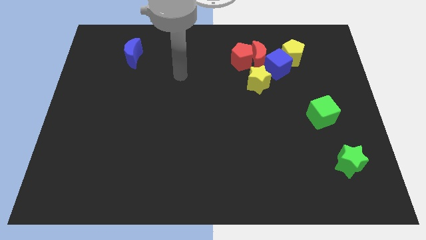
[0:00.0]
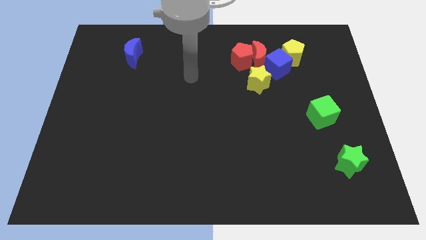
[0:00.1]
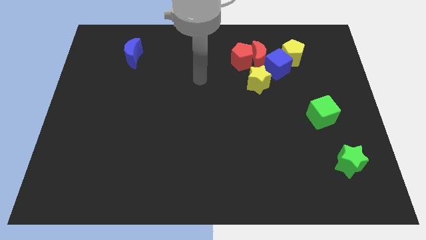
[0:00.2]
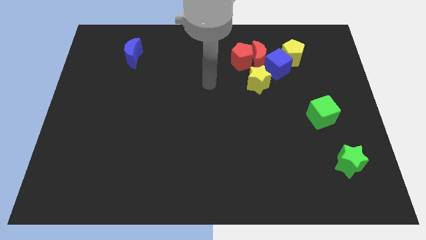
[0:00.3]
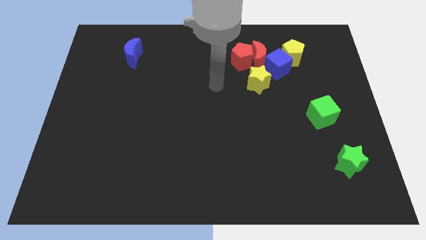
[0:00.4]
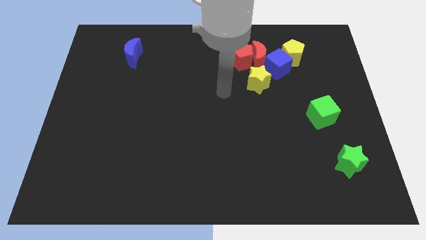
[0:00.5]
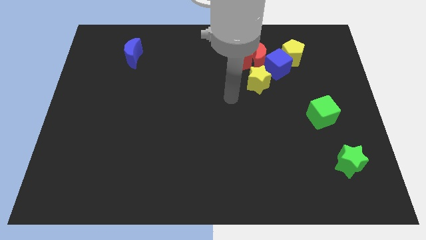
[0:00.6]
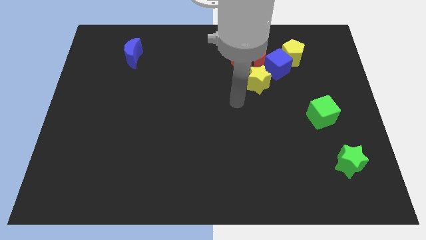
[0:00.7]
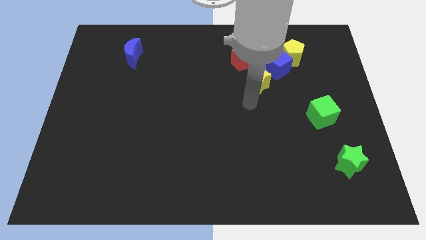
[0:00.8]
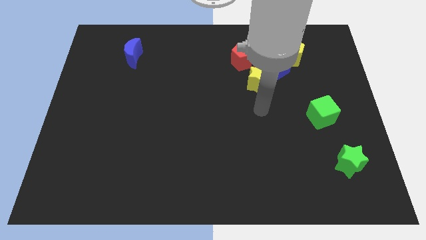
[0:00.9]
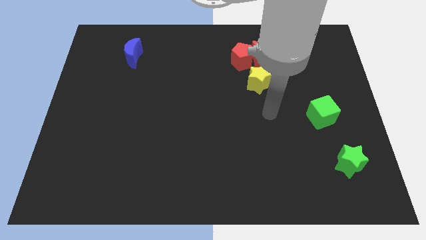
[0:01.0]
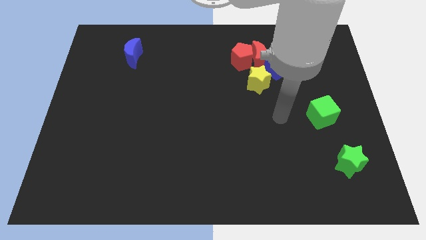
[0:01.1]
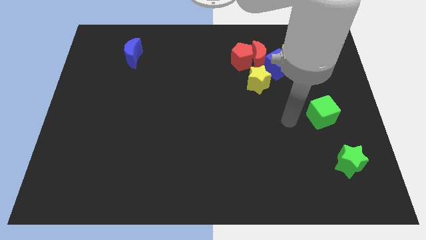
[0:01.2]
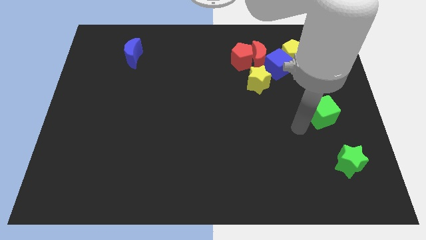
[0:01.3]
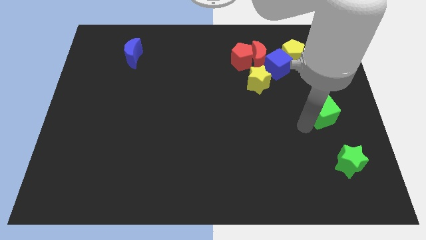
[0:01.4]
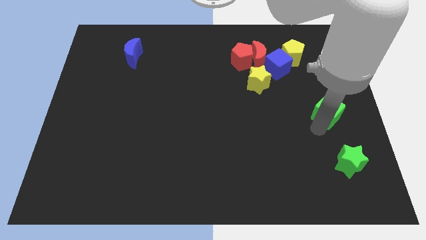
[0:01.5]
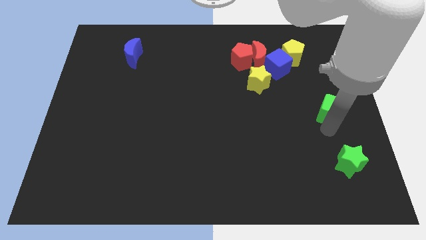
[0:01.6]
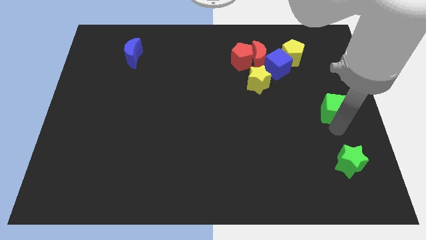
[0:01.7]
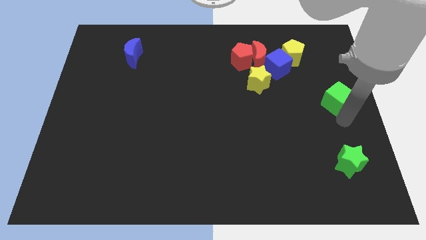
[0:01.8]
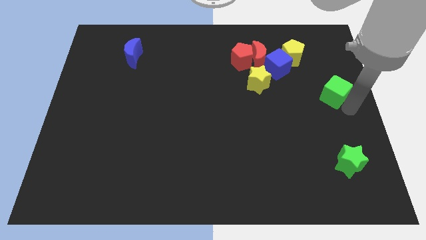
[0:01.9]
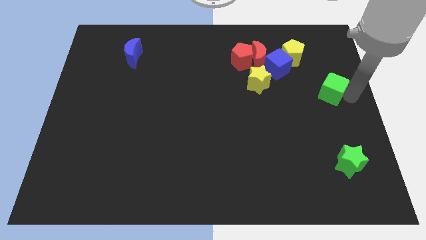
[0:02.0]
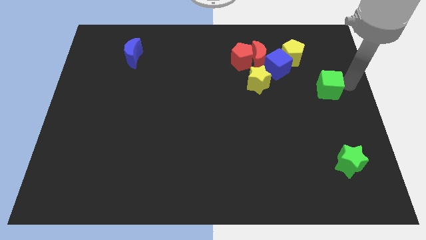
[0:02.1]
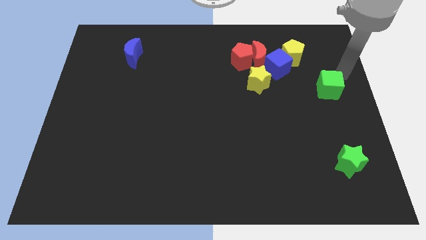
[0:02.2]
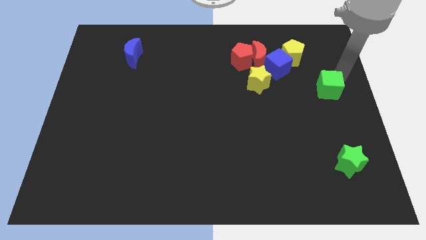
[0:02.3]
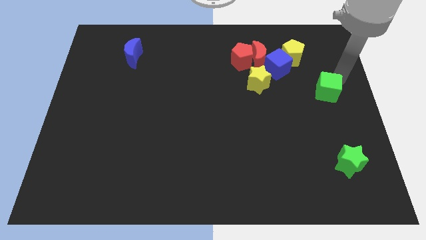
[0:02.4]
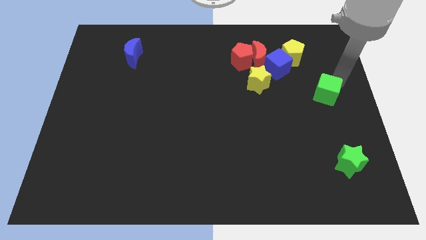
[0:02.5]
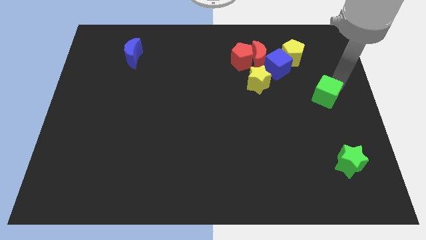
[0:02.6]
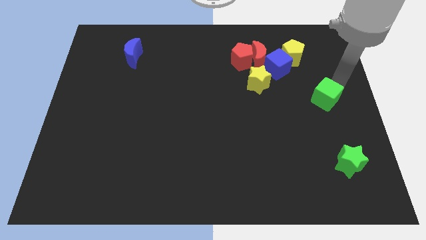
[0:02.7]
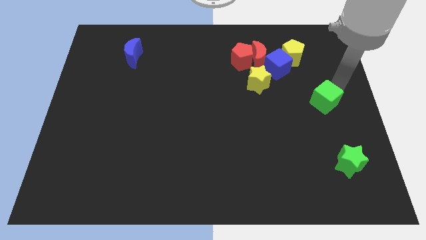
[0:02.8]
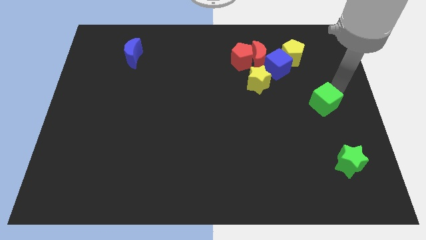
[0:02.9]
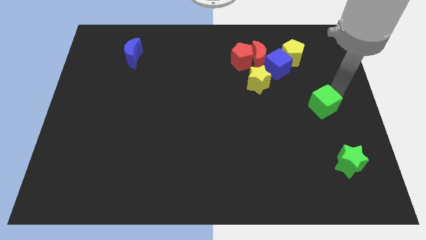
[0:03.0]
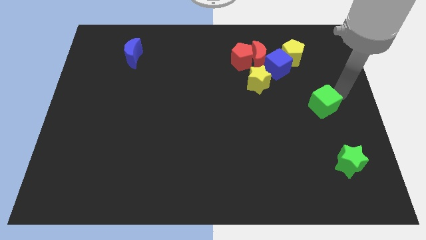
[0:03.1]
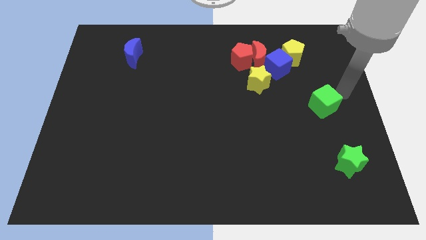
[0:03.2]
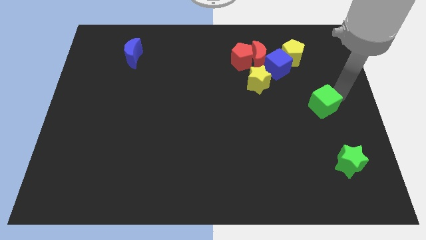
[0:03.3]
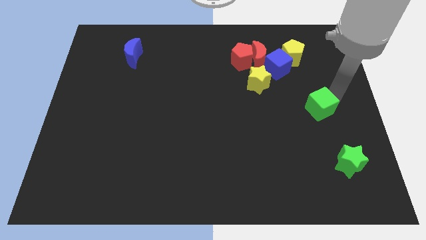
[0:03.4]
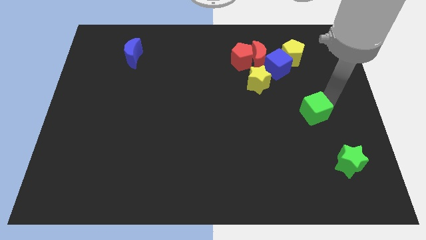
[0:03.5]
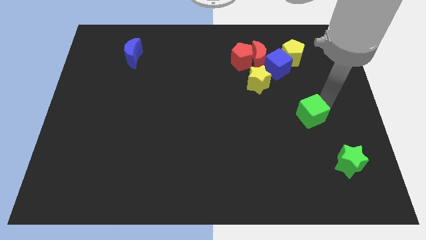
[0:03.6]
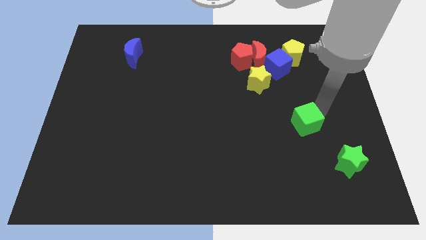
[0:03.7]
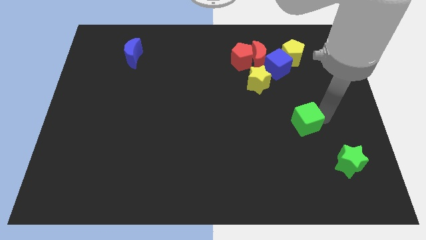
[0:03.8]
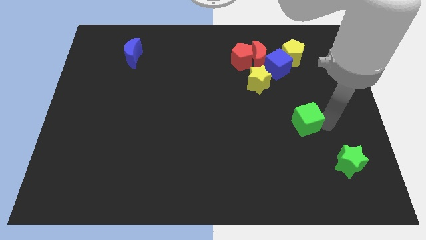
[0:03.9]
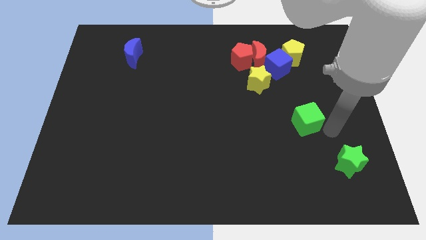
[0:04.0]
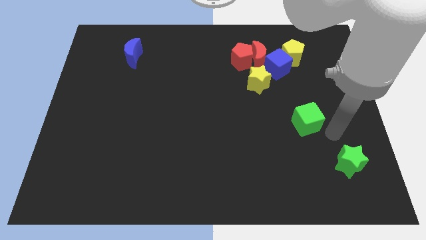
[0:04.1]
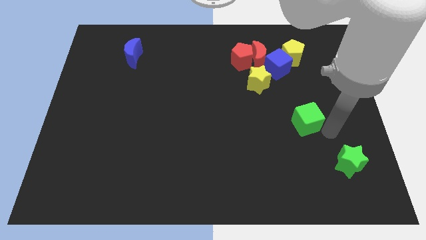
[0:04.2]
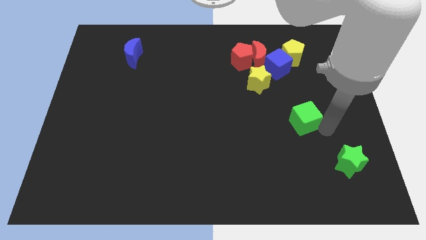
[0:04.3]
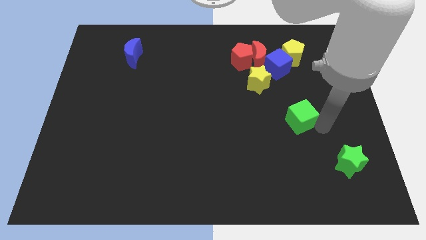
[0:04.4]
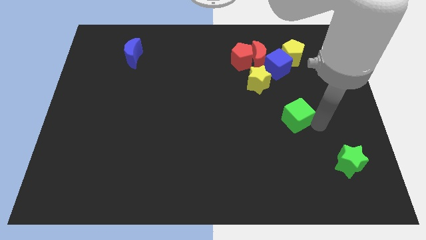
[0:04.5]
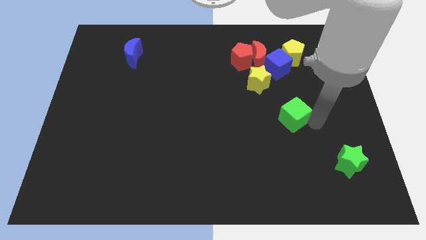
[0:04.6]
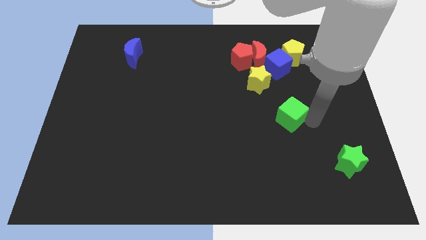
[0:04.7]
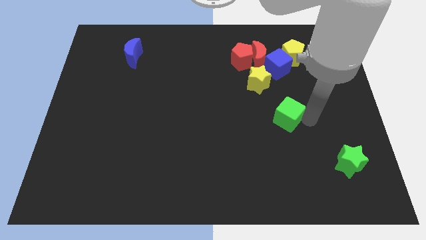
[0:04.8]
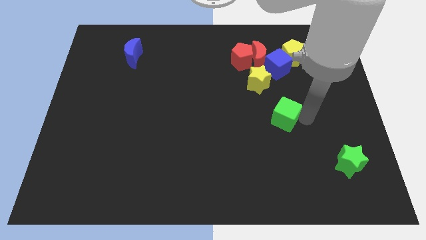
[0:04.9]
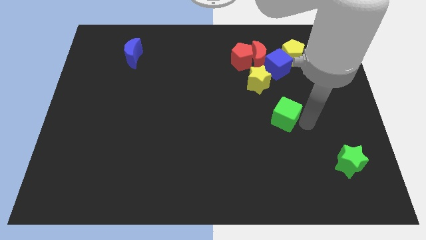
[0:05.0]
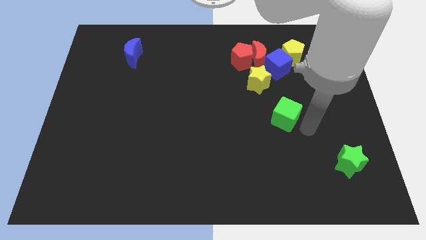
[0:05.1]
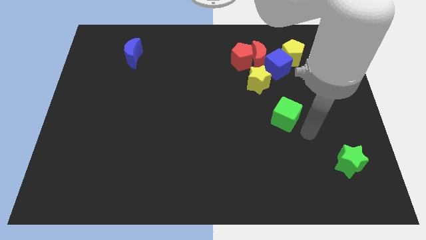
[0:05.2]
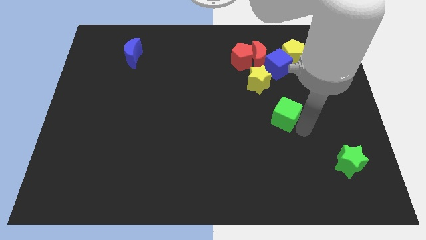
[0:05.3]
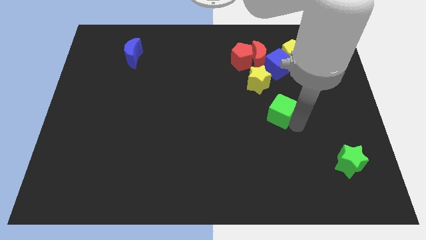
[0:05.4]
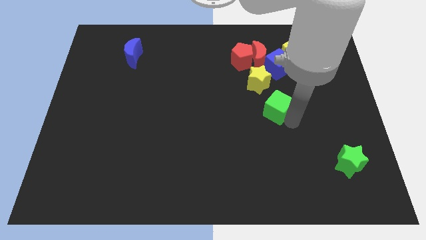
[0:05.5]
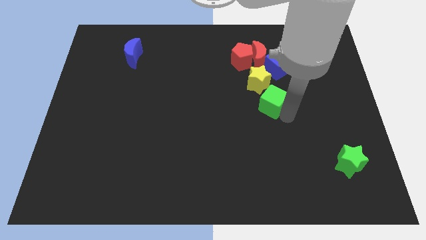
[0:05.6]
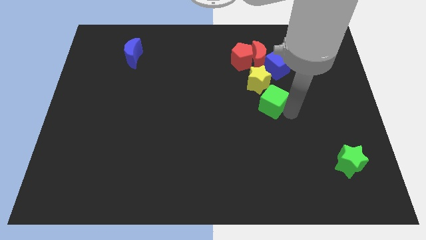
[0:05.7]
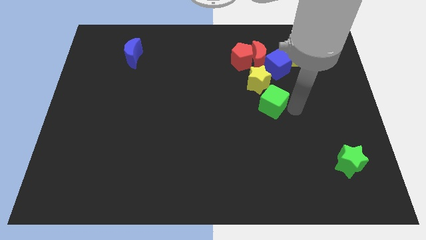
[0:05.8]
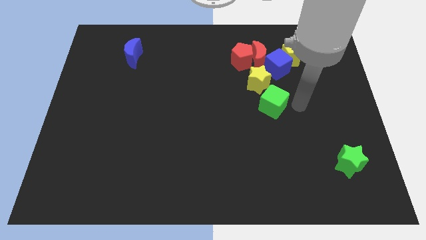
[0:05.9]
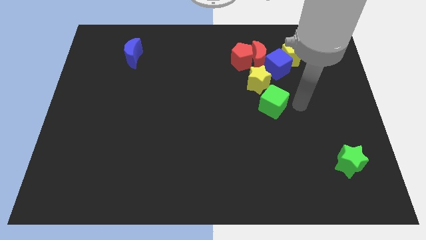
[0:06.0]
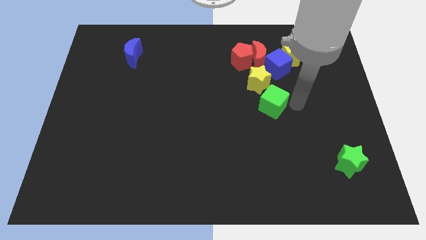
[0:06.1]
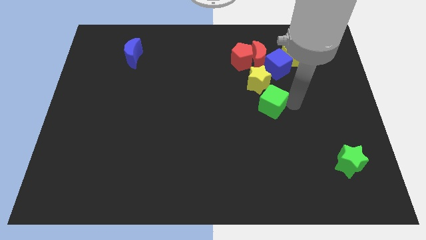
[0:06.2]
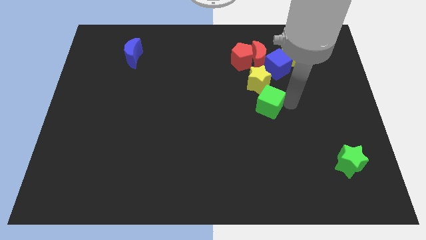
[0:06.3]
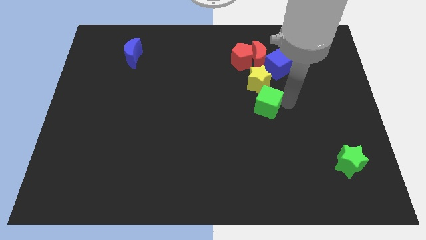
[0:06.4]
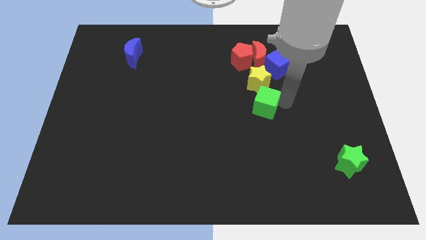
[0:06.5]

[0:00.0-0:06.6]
move the green cube to the middle

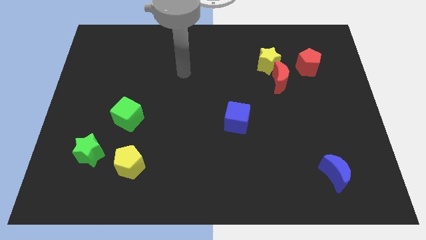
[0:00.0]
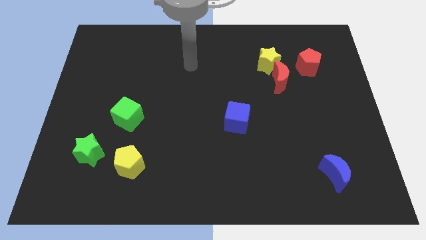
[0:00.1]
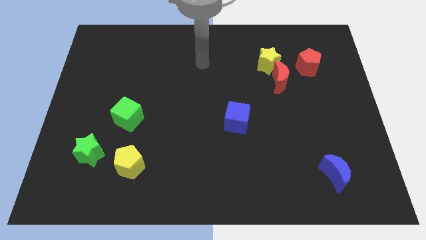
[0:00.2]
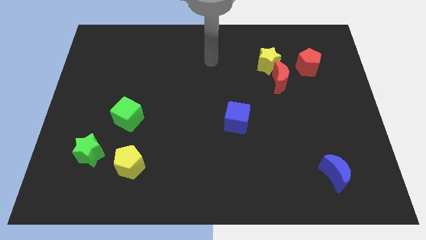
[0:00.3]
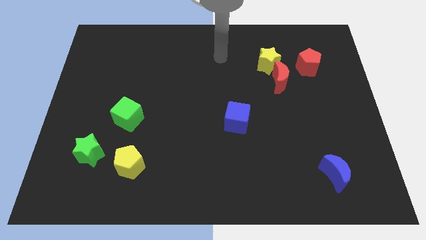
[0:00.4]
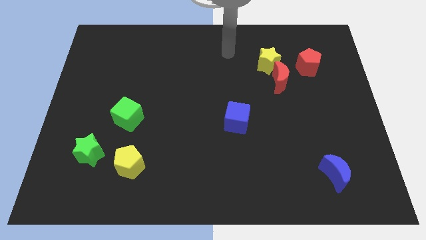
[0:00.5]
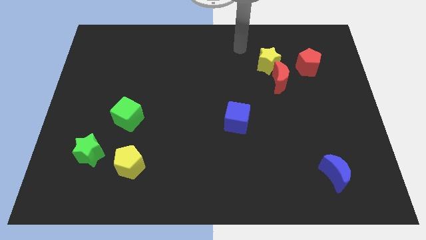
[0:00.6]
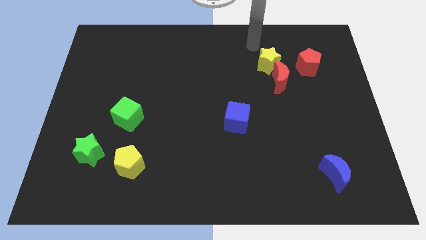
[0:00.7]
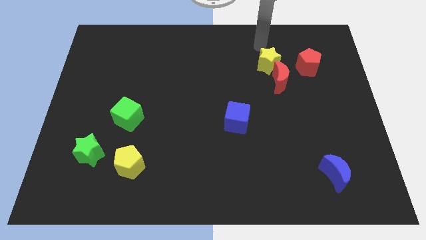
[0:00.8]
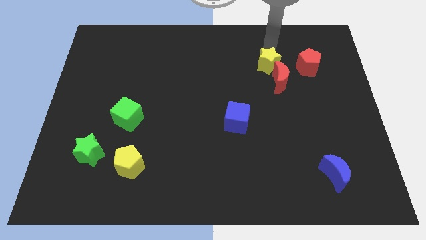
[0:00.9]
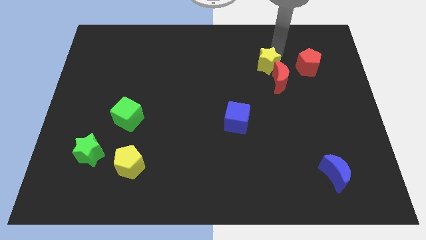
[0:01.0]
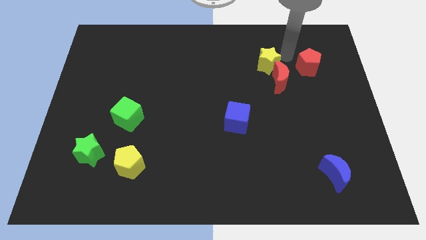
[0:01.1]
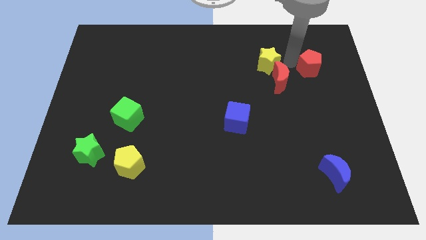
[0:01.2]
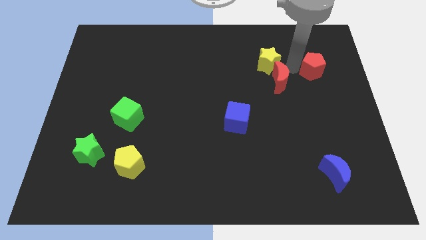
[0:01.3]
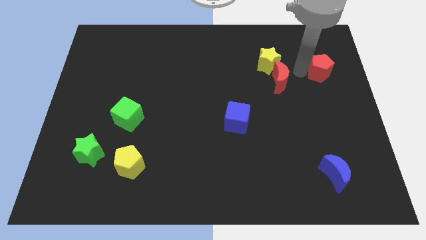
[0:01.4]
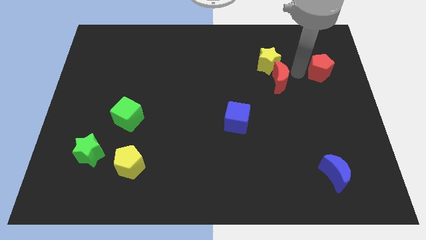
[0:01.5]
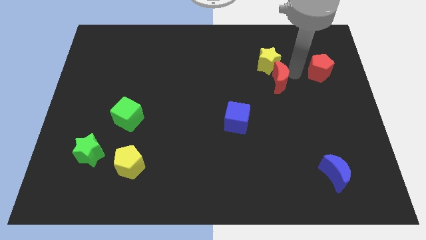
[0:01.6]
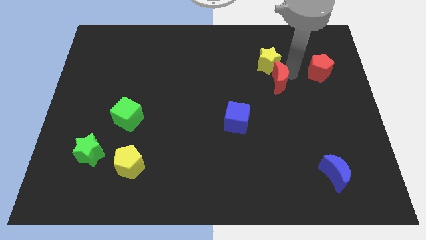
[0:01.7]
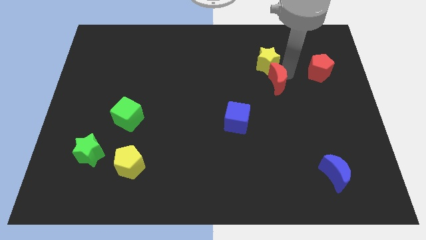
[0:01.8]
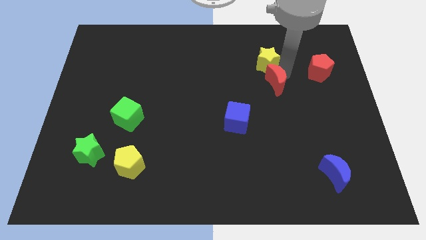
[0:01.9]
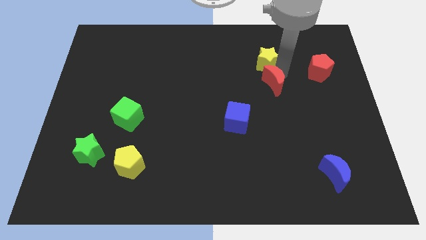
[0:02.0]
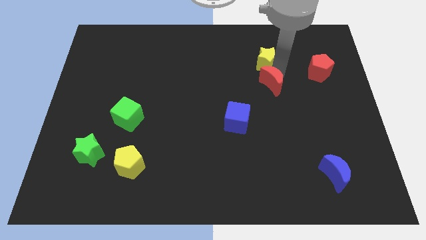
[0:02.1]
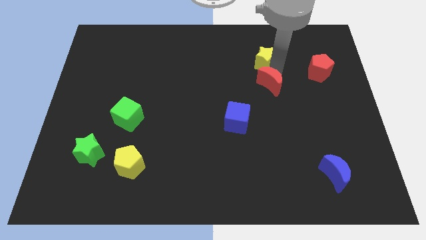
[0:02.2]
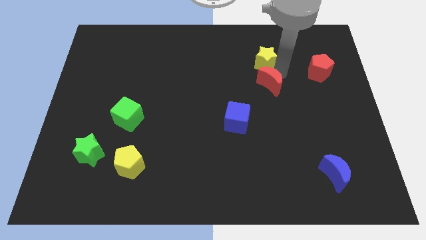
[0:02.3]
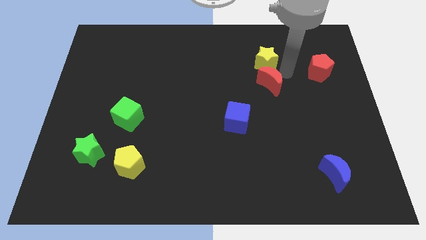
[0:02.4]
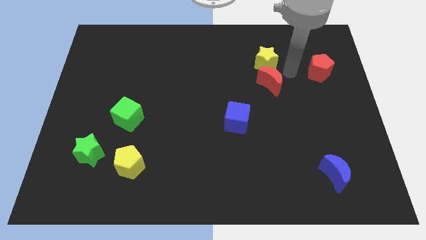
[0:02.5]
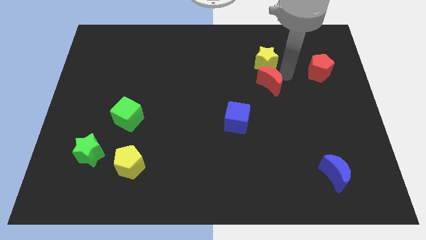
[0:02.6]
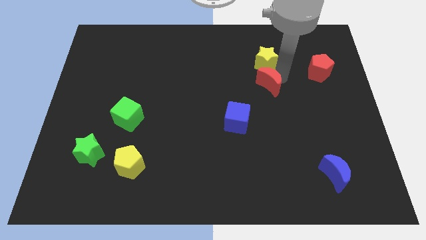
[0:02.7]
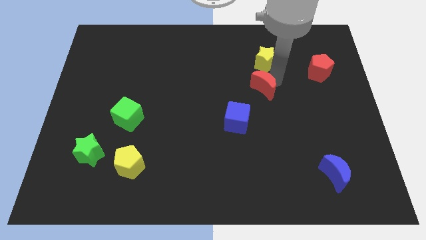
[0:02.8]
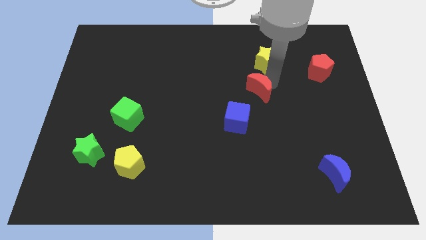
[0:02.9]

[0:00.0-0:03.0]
move the red moon to the center of the board
